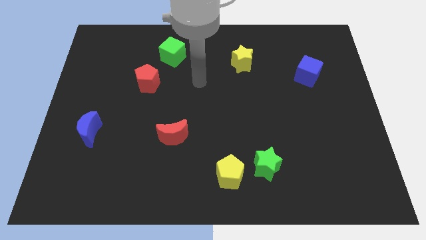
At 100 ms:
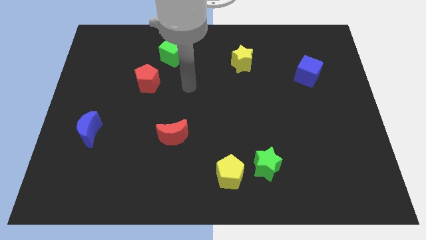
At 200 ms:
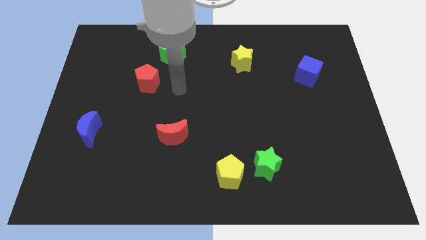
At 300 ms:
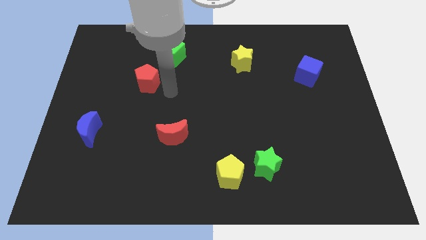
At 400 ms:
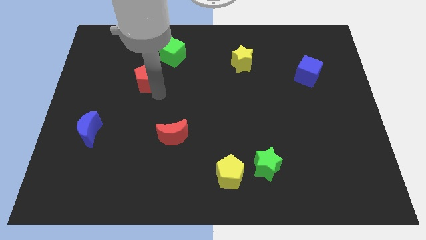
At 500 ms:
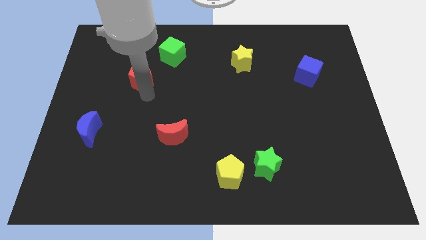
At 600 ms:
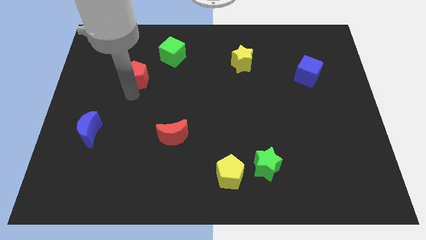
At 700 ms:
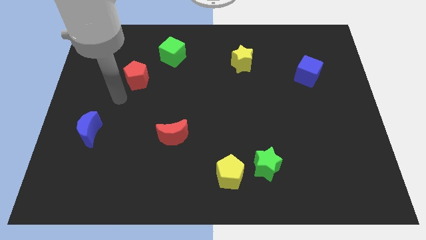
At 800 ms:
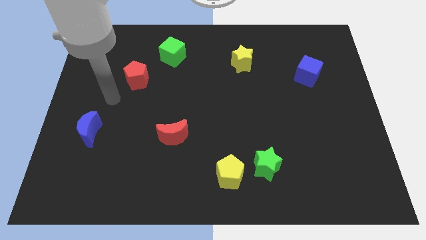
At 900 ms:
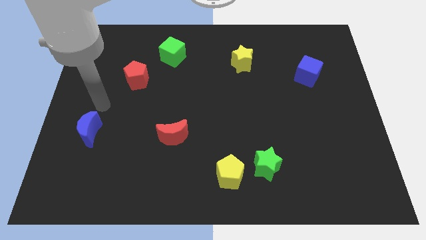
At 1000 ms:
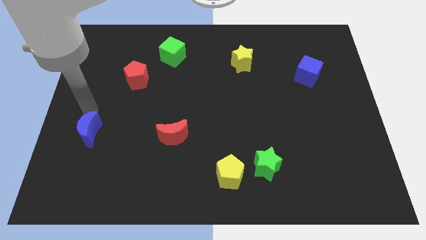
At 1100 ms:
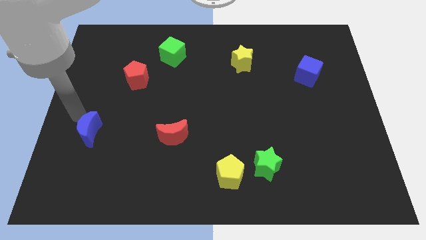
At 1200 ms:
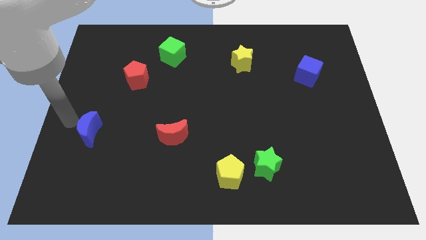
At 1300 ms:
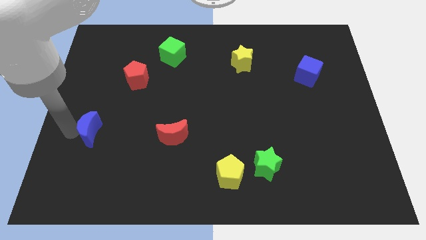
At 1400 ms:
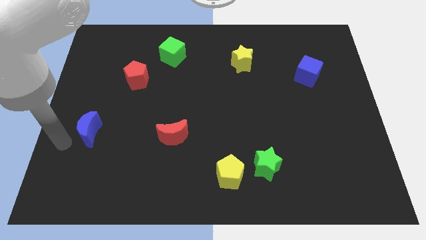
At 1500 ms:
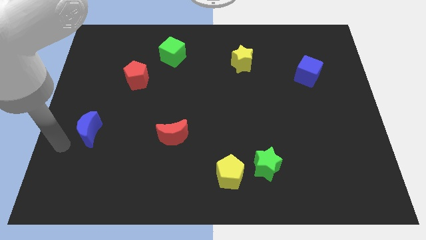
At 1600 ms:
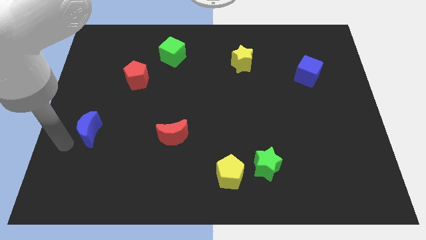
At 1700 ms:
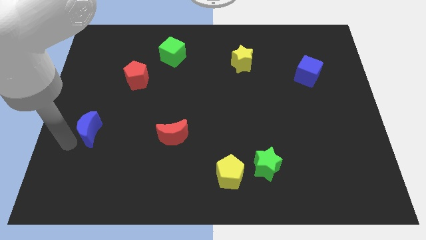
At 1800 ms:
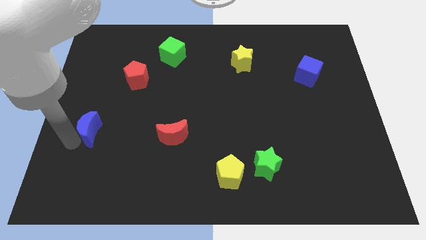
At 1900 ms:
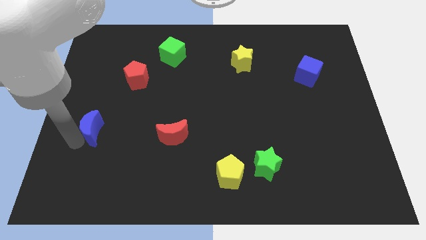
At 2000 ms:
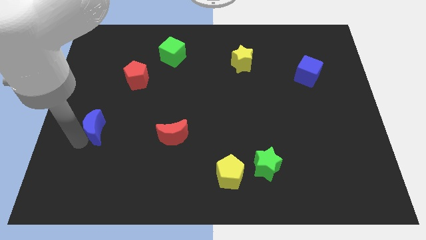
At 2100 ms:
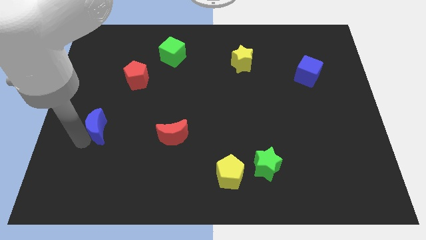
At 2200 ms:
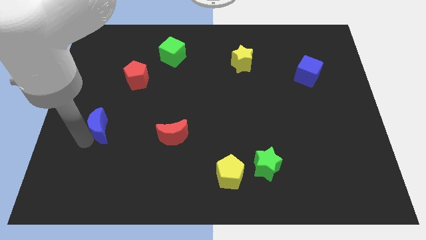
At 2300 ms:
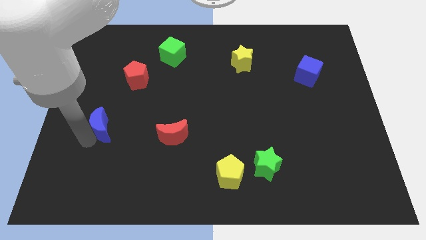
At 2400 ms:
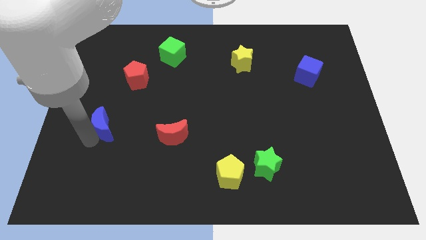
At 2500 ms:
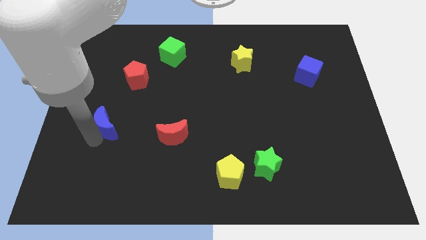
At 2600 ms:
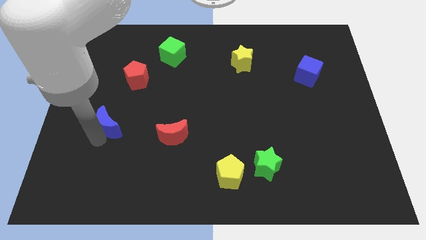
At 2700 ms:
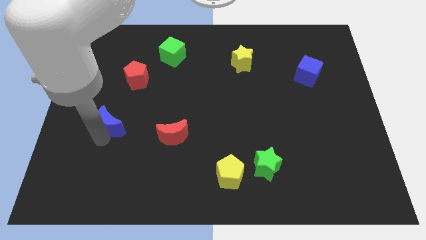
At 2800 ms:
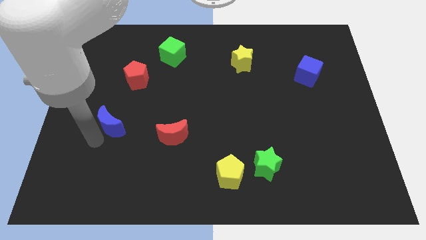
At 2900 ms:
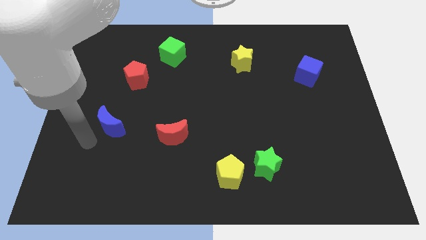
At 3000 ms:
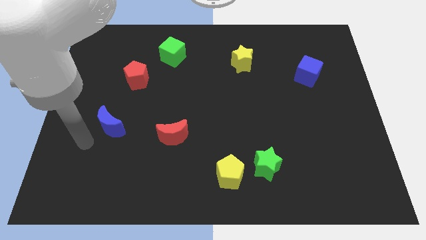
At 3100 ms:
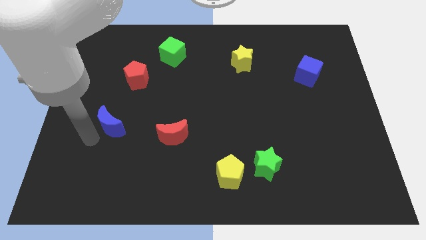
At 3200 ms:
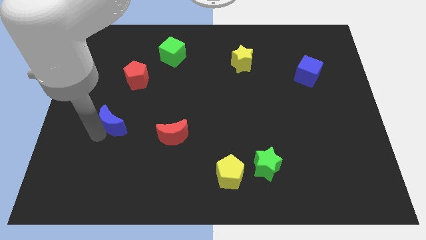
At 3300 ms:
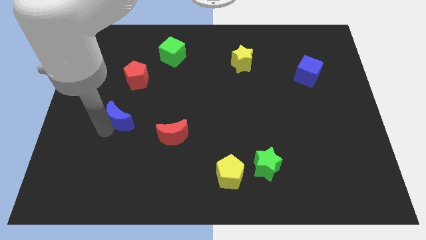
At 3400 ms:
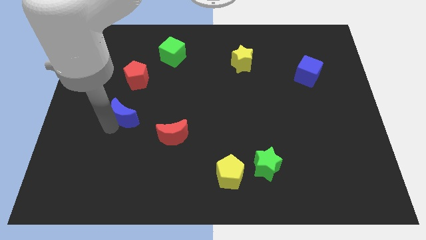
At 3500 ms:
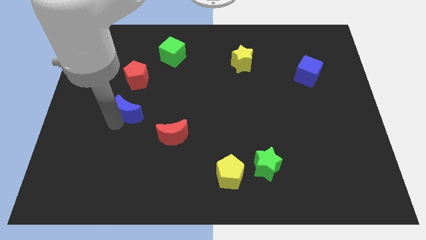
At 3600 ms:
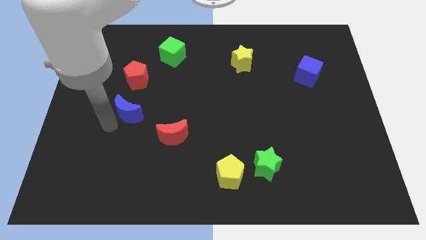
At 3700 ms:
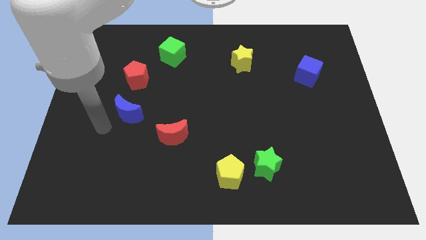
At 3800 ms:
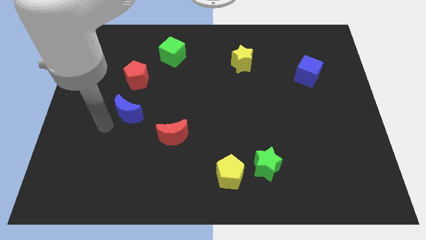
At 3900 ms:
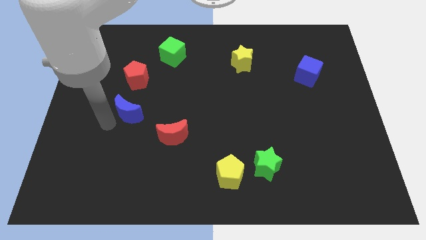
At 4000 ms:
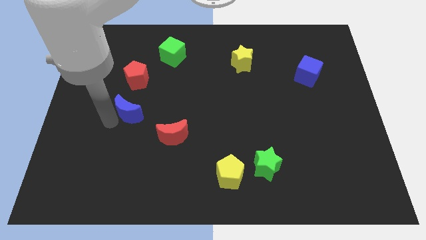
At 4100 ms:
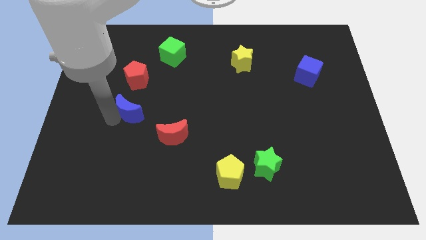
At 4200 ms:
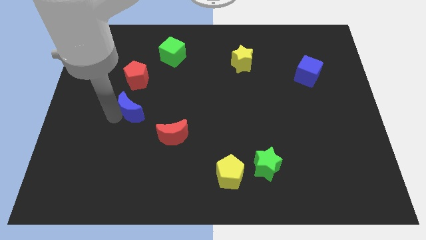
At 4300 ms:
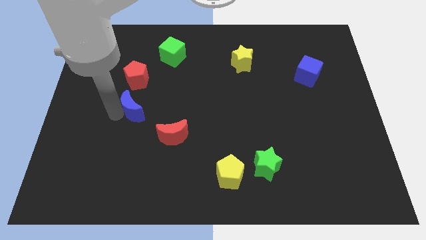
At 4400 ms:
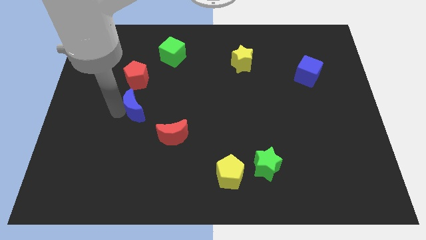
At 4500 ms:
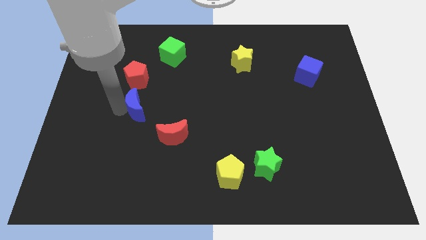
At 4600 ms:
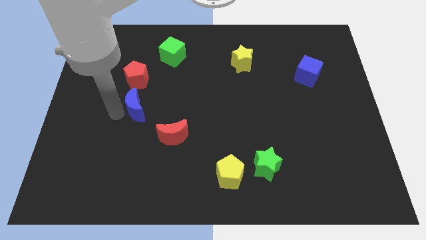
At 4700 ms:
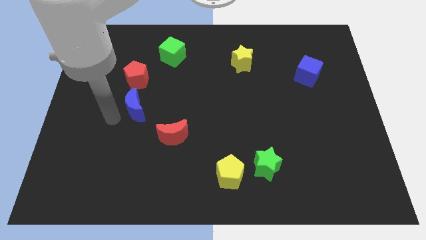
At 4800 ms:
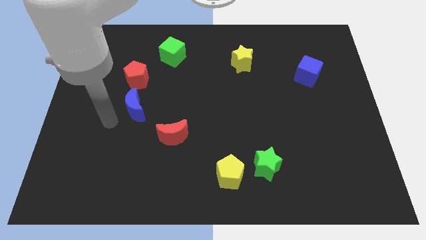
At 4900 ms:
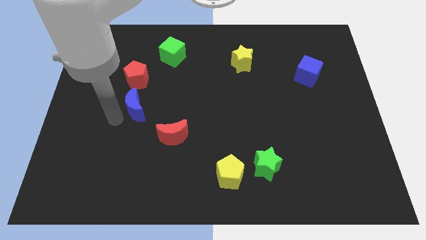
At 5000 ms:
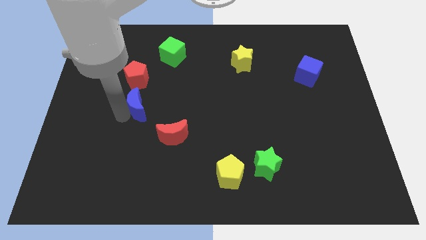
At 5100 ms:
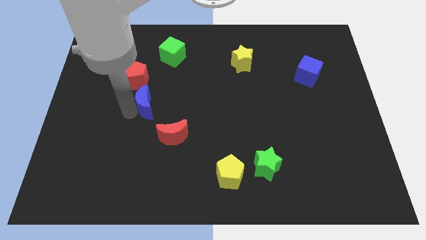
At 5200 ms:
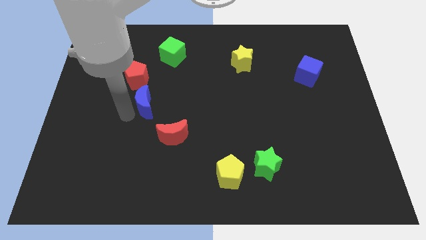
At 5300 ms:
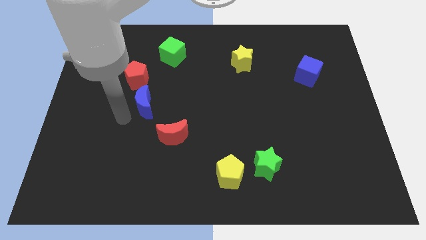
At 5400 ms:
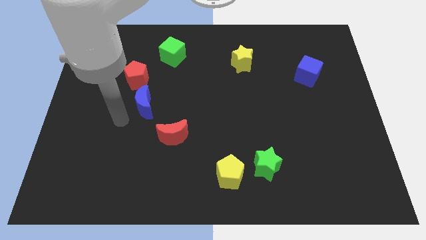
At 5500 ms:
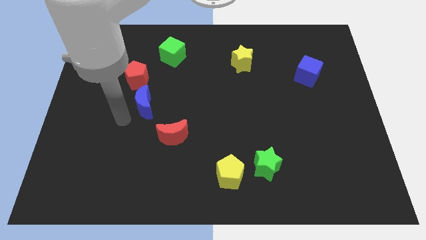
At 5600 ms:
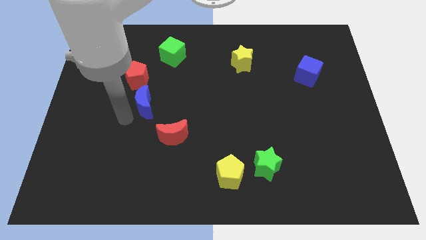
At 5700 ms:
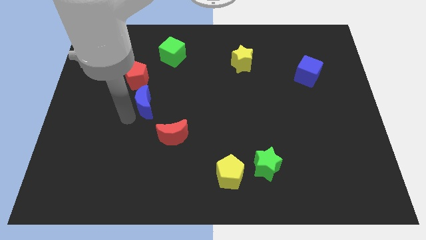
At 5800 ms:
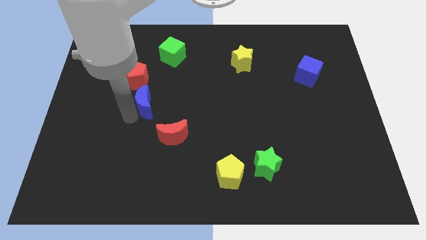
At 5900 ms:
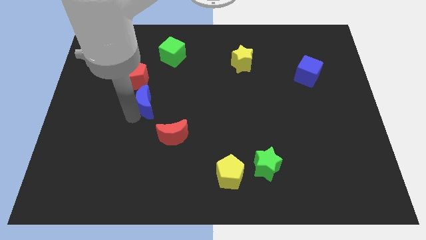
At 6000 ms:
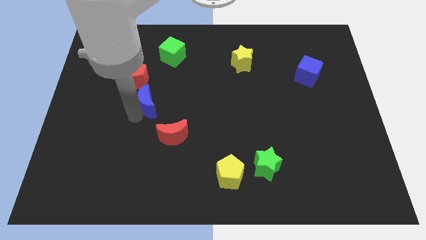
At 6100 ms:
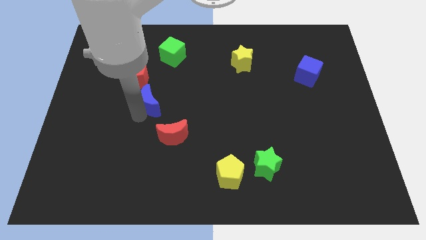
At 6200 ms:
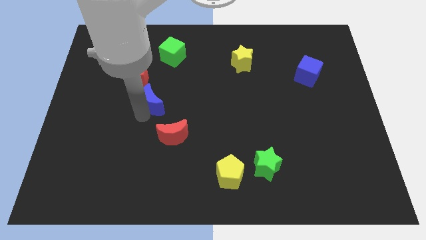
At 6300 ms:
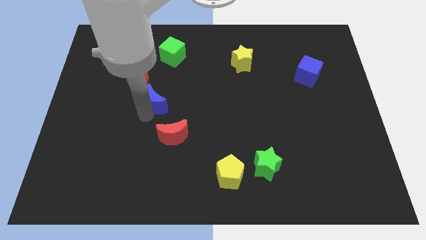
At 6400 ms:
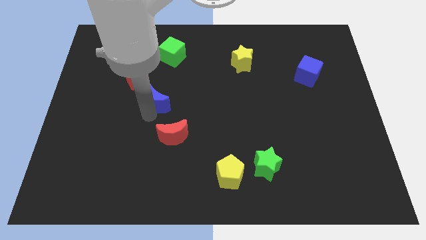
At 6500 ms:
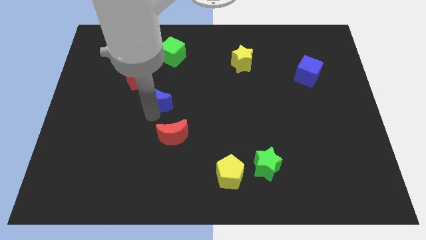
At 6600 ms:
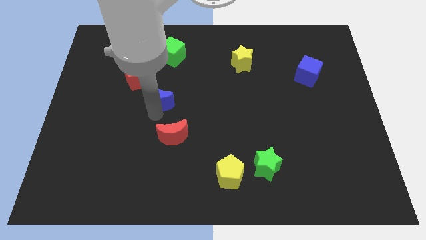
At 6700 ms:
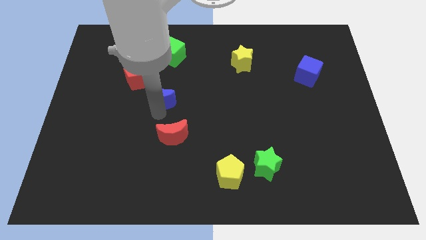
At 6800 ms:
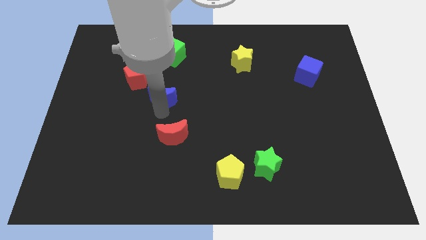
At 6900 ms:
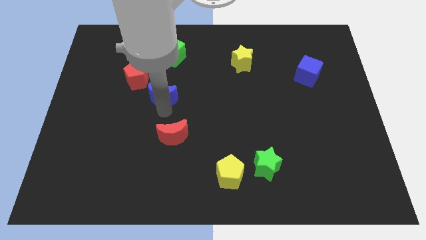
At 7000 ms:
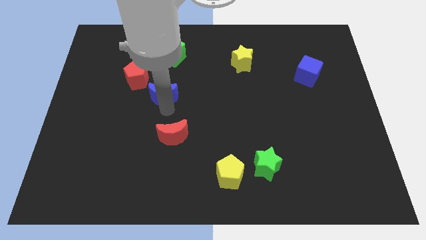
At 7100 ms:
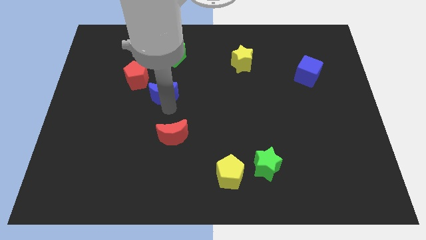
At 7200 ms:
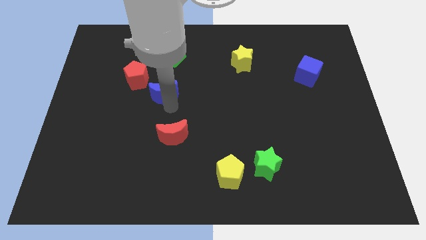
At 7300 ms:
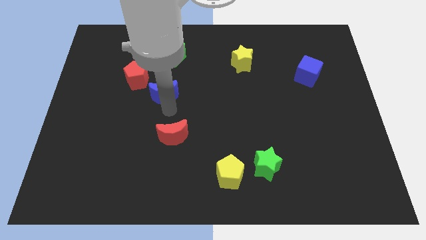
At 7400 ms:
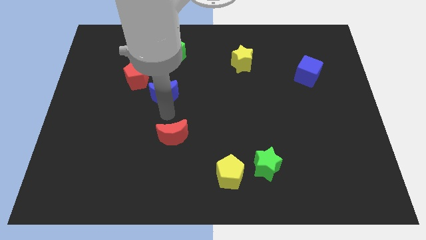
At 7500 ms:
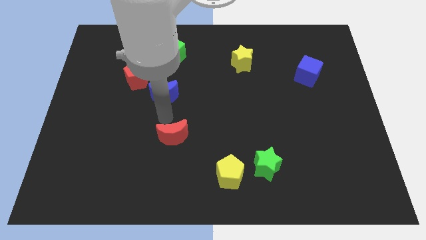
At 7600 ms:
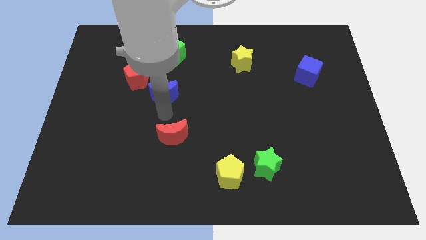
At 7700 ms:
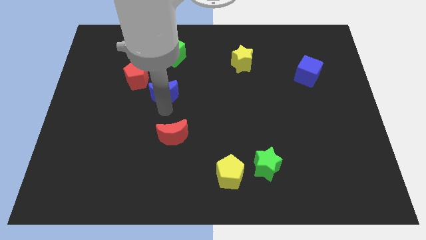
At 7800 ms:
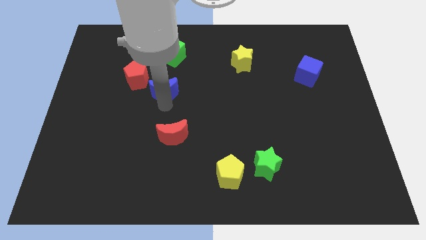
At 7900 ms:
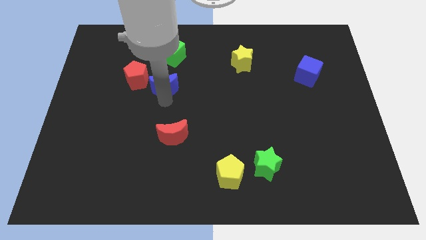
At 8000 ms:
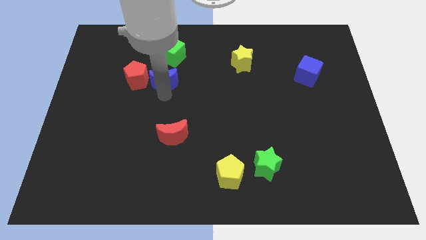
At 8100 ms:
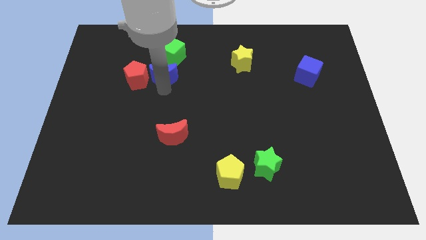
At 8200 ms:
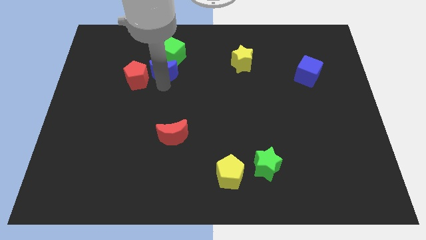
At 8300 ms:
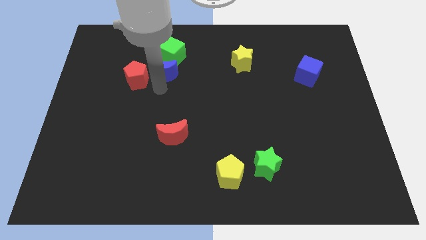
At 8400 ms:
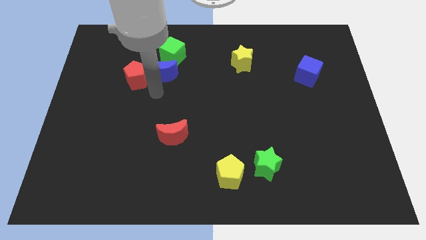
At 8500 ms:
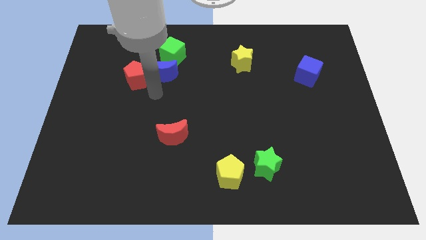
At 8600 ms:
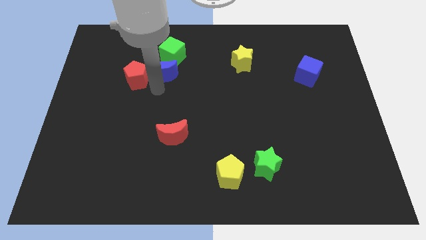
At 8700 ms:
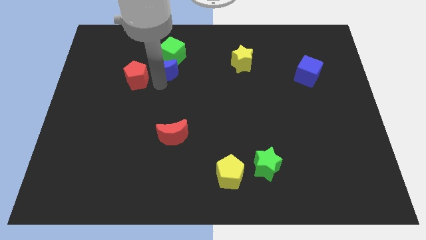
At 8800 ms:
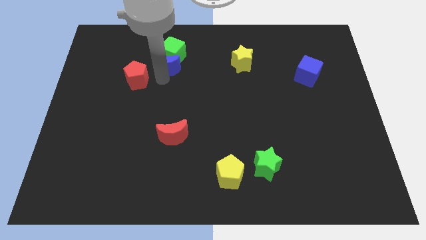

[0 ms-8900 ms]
move the blue moon to the green cube

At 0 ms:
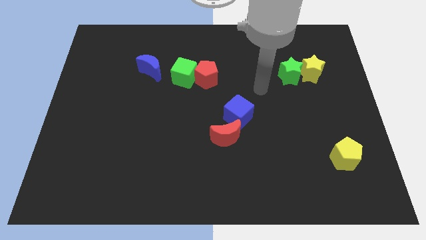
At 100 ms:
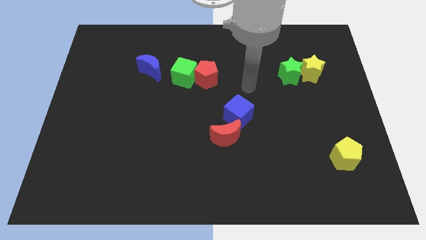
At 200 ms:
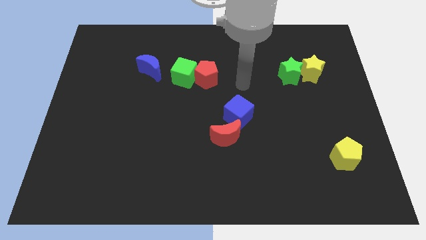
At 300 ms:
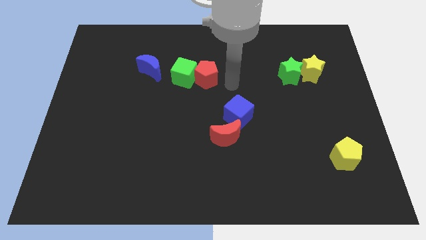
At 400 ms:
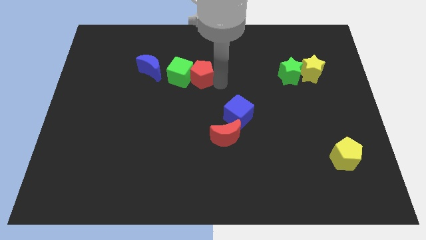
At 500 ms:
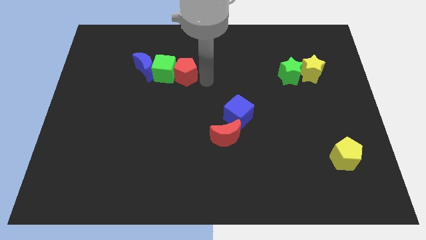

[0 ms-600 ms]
push the green cube to the blue moon
